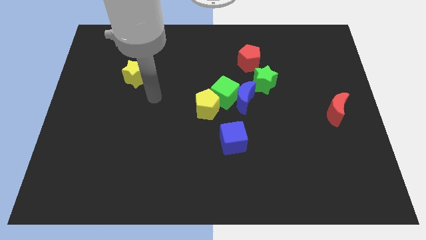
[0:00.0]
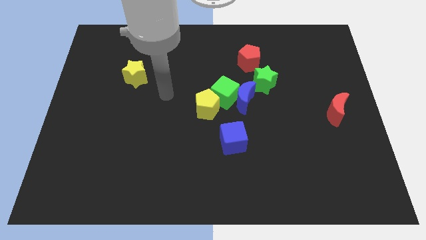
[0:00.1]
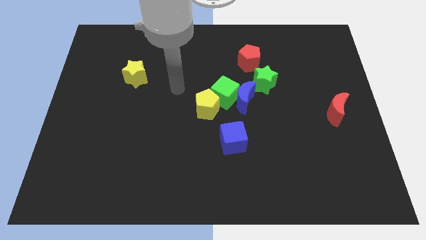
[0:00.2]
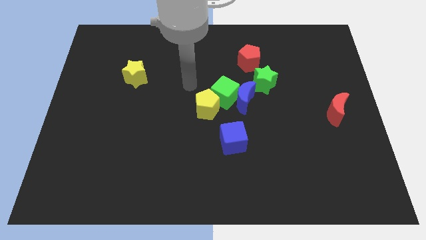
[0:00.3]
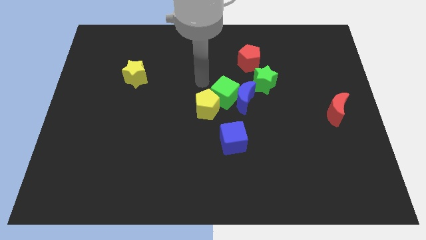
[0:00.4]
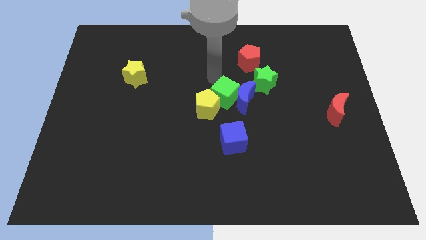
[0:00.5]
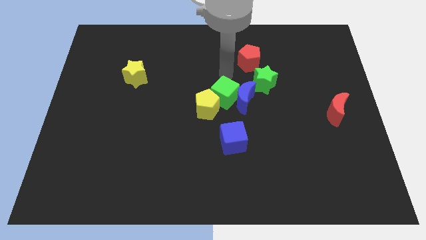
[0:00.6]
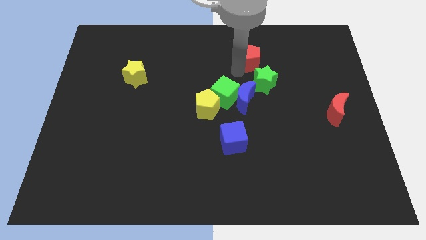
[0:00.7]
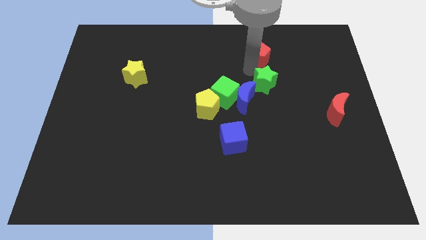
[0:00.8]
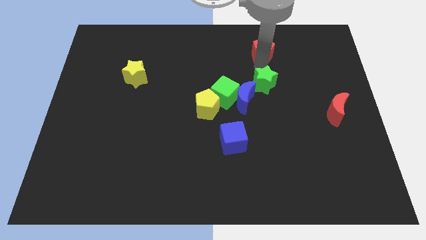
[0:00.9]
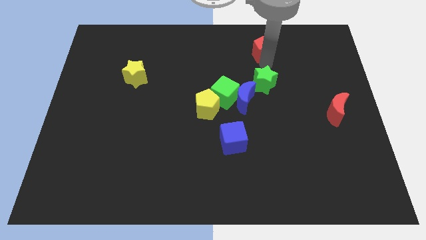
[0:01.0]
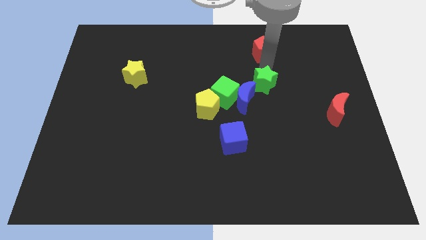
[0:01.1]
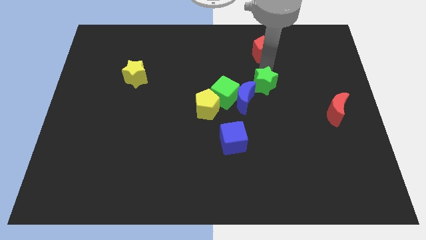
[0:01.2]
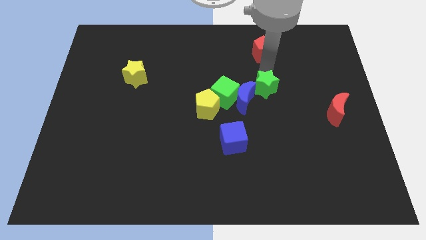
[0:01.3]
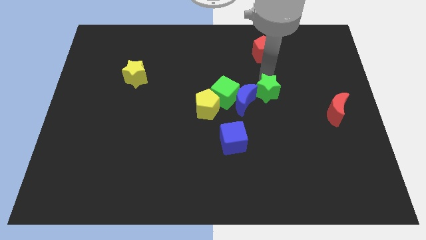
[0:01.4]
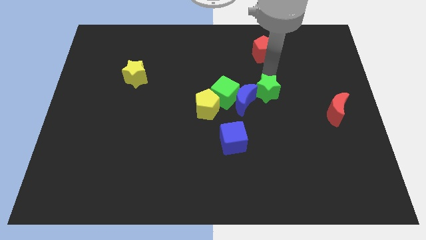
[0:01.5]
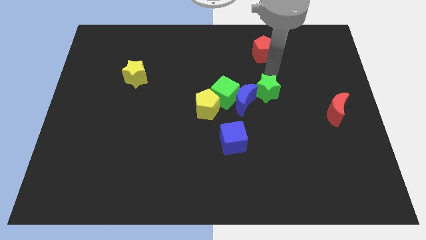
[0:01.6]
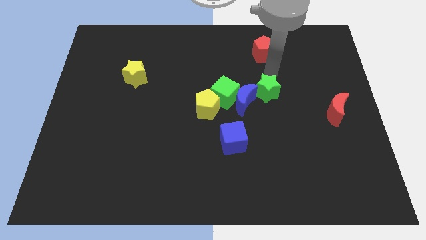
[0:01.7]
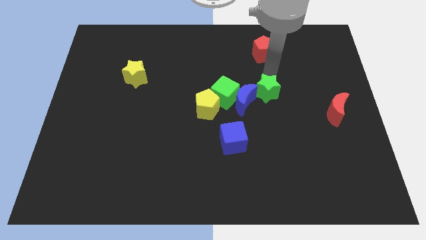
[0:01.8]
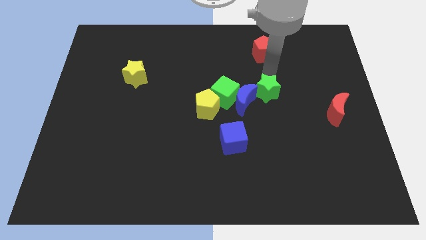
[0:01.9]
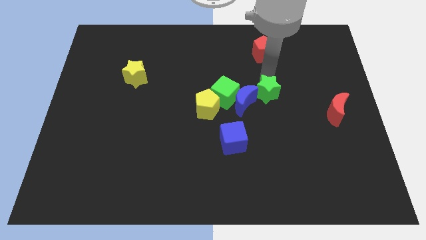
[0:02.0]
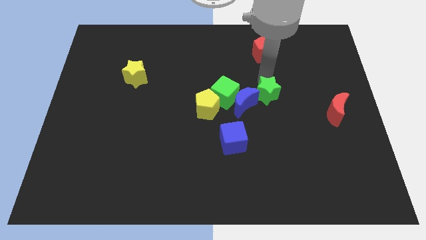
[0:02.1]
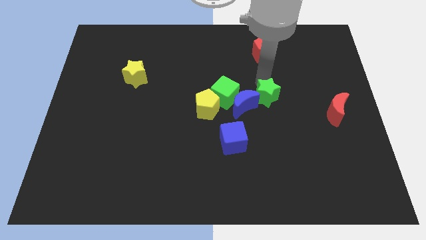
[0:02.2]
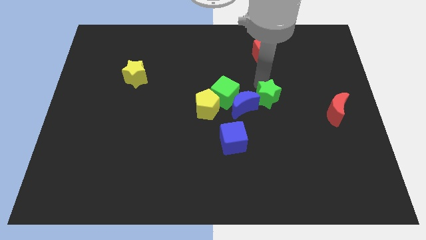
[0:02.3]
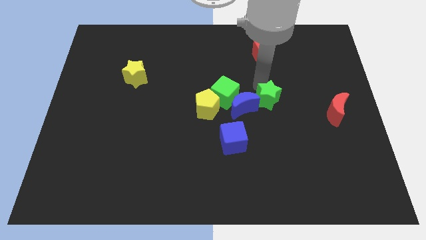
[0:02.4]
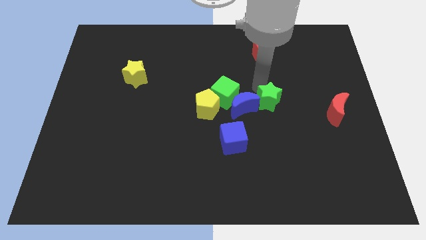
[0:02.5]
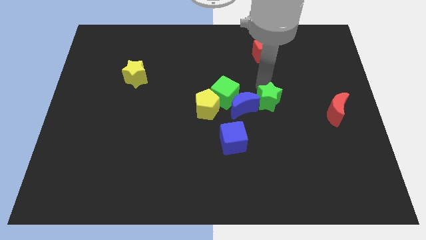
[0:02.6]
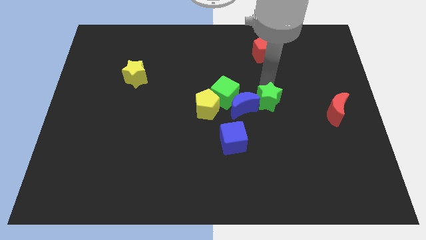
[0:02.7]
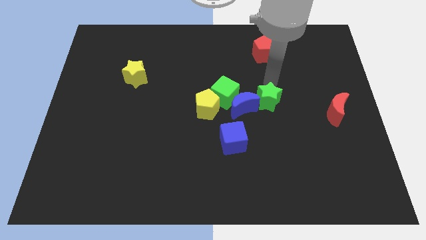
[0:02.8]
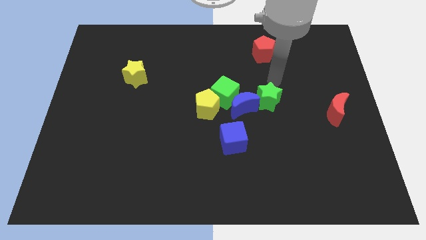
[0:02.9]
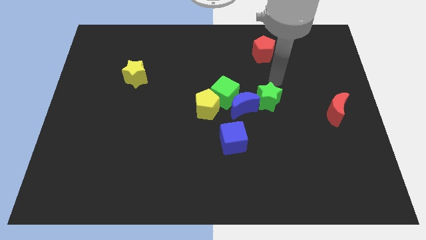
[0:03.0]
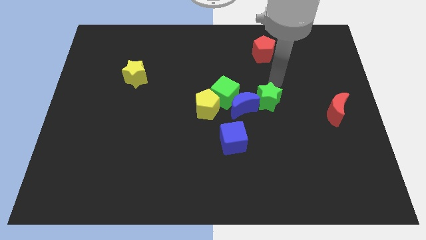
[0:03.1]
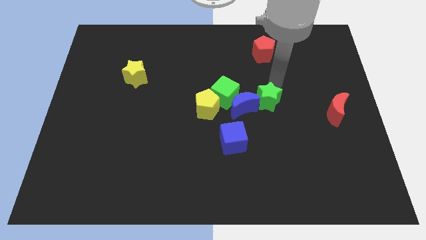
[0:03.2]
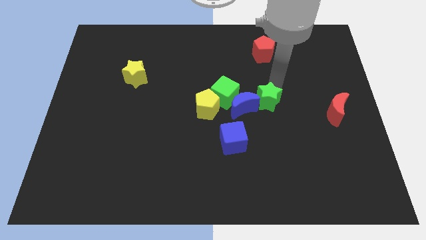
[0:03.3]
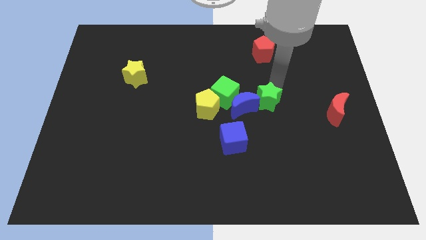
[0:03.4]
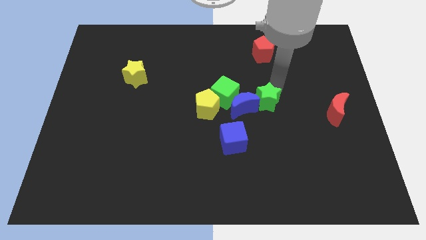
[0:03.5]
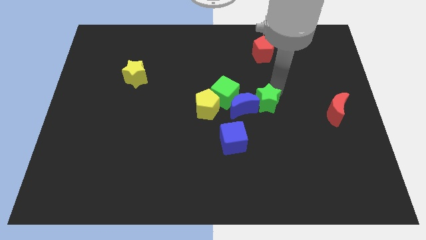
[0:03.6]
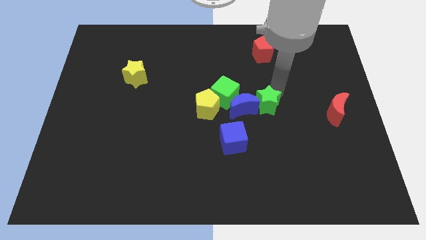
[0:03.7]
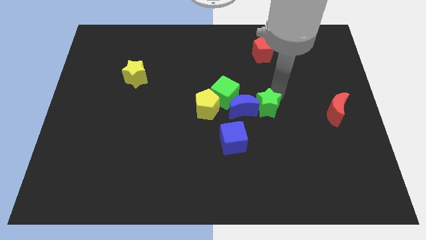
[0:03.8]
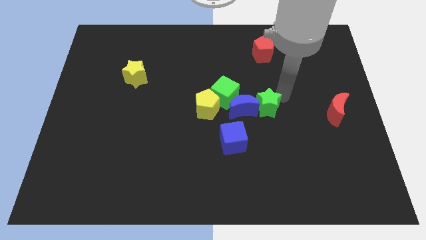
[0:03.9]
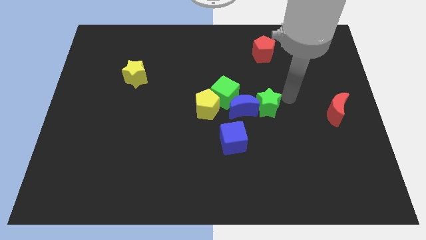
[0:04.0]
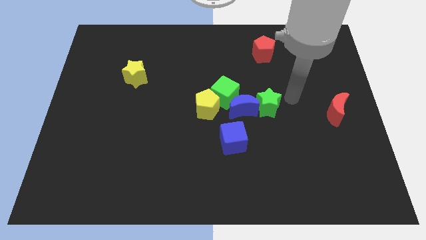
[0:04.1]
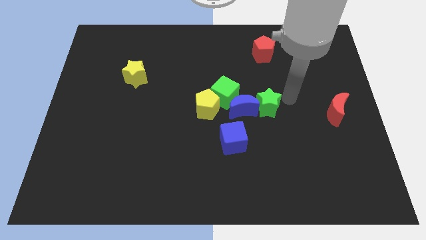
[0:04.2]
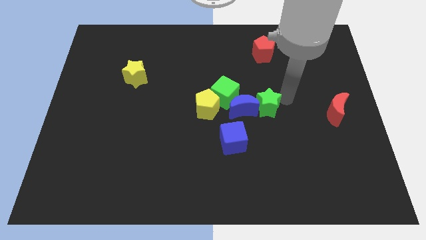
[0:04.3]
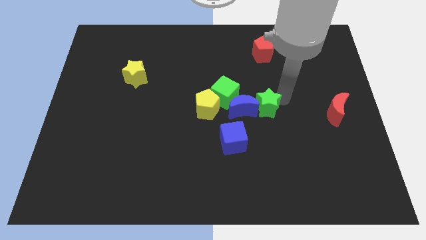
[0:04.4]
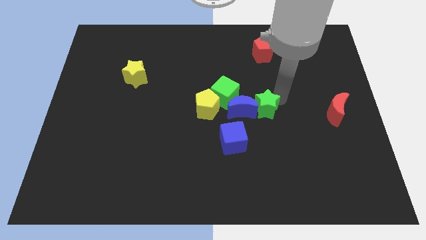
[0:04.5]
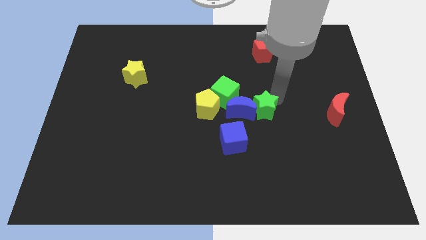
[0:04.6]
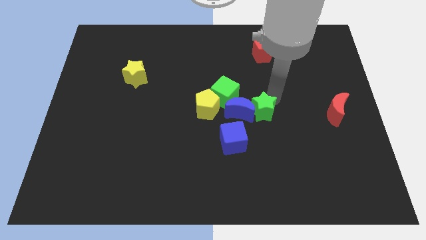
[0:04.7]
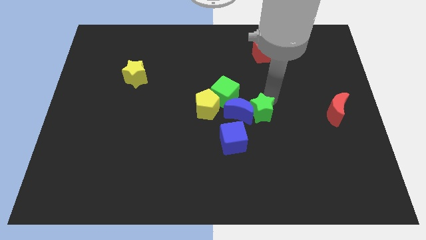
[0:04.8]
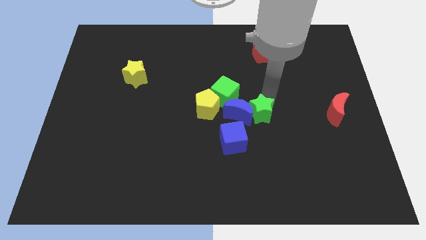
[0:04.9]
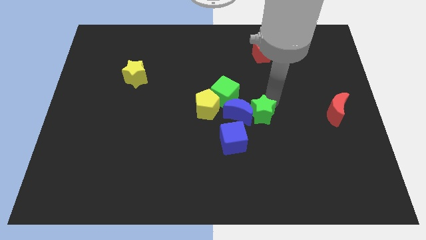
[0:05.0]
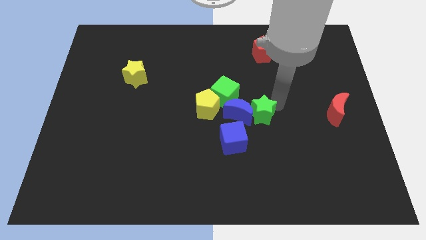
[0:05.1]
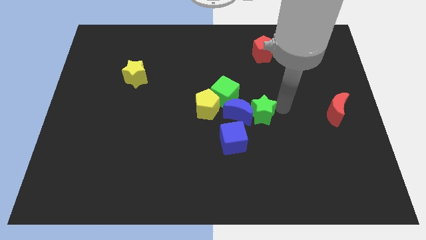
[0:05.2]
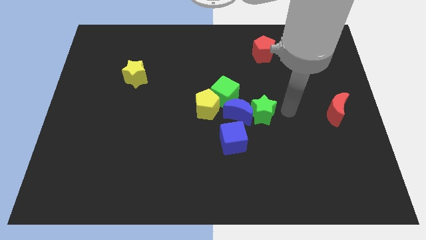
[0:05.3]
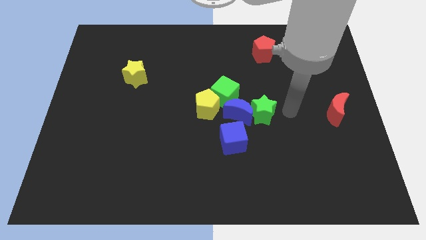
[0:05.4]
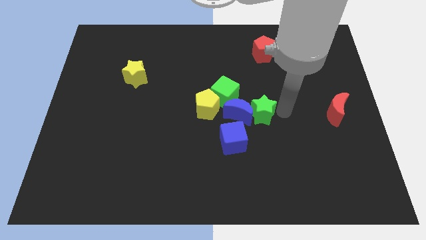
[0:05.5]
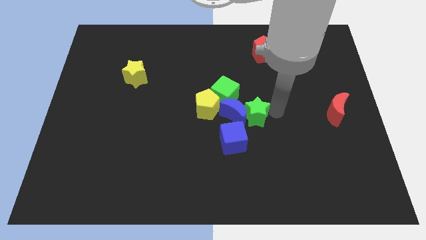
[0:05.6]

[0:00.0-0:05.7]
move the green star slightly down and to the left

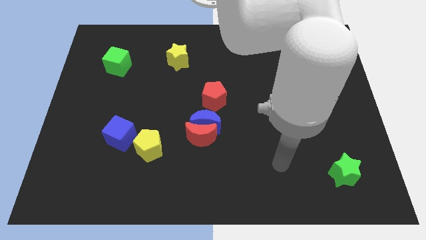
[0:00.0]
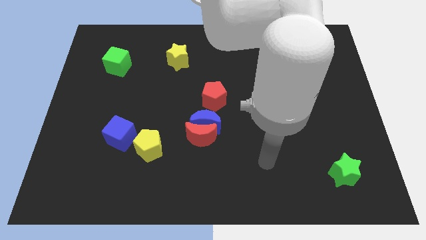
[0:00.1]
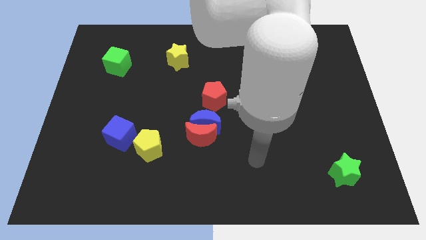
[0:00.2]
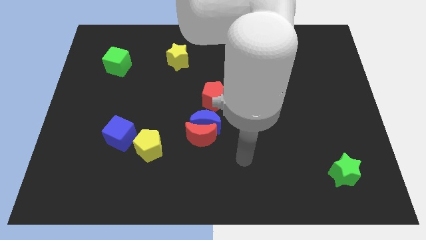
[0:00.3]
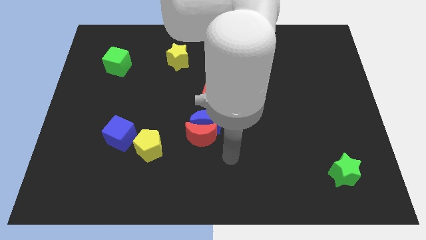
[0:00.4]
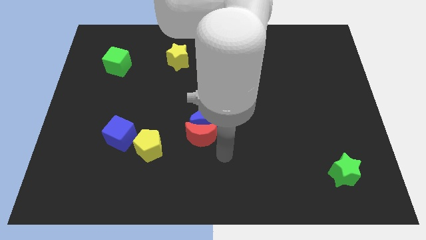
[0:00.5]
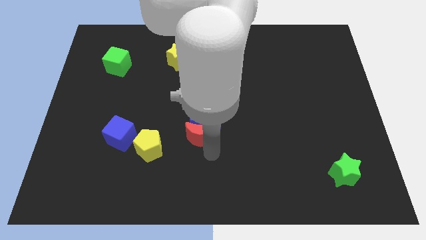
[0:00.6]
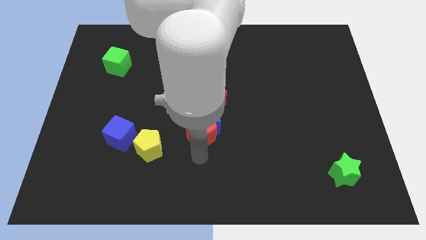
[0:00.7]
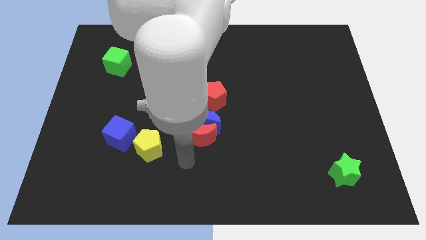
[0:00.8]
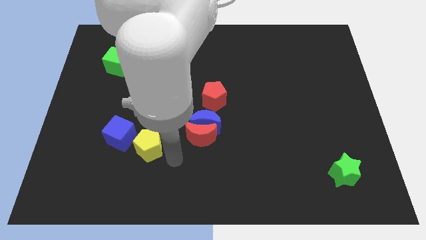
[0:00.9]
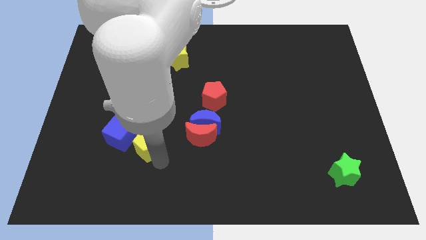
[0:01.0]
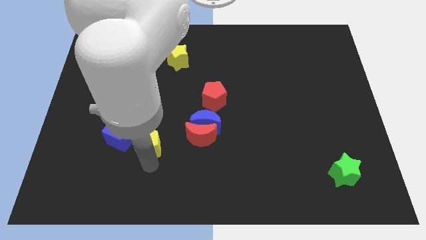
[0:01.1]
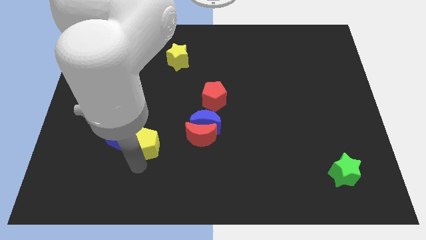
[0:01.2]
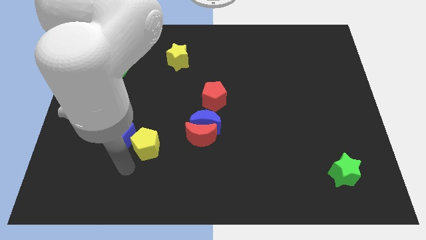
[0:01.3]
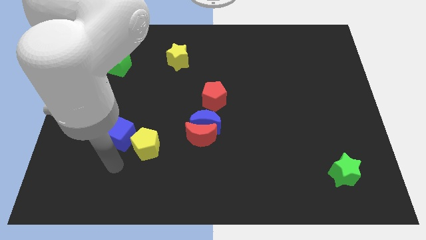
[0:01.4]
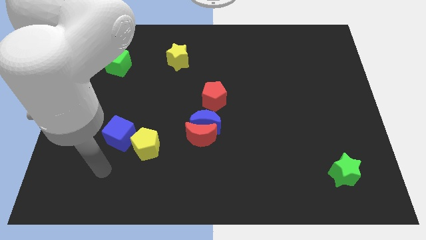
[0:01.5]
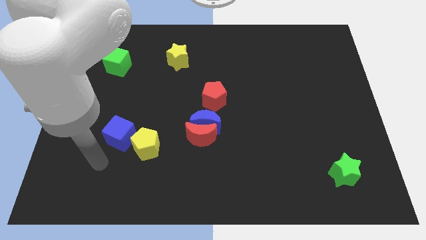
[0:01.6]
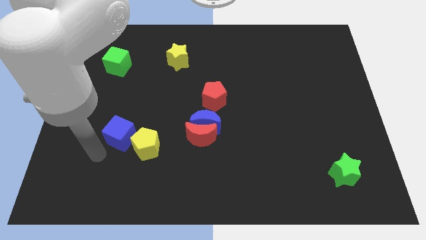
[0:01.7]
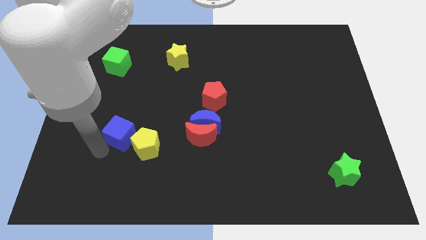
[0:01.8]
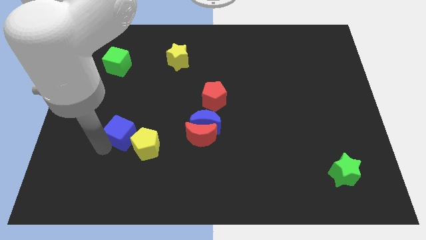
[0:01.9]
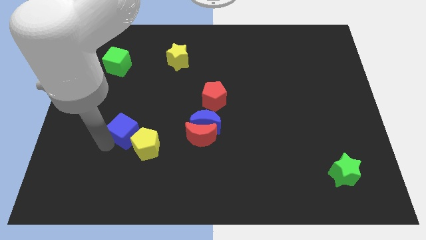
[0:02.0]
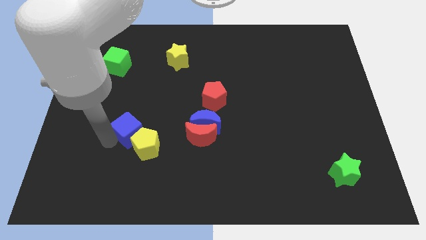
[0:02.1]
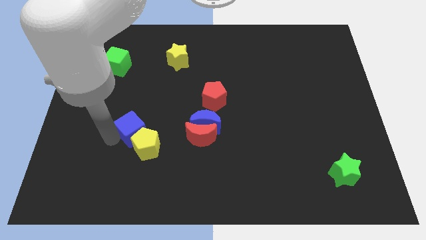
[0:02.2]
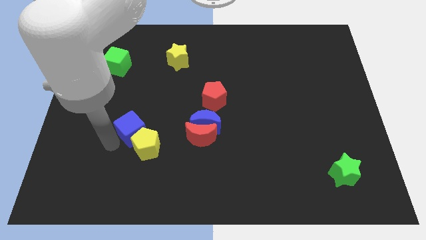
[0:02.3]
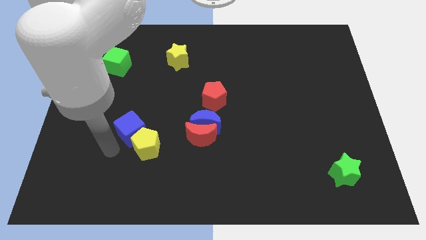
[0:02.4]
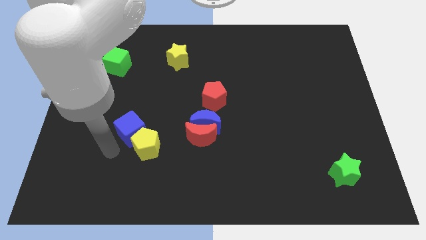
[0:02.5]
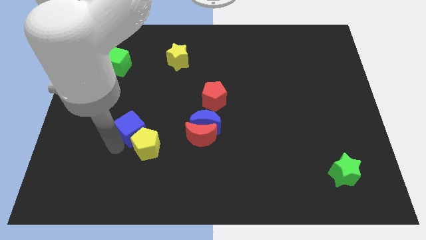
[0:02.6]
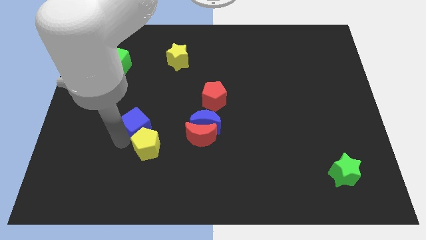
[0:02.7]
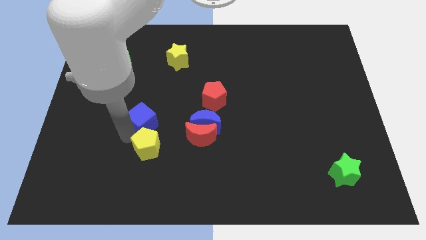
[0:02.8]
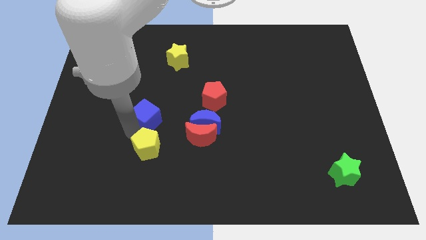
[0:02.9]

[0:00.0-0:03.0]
push the blue cube somewhat upwards and then to the right
